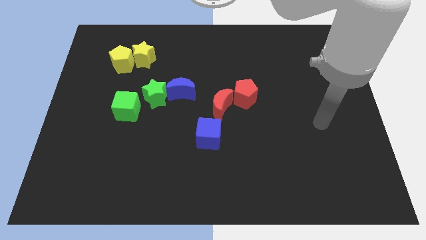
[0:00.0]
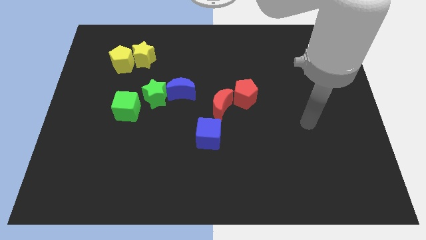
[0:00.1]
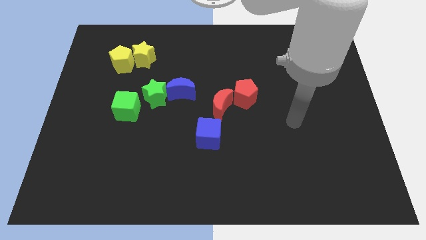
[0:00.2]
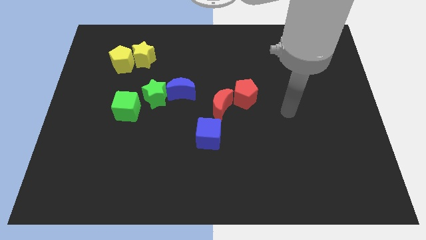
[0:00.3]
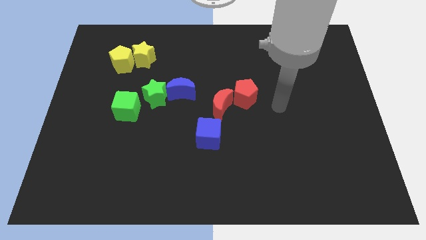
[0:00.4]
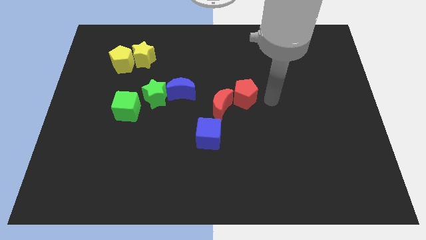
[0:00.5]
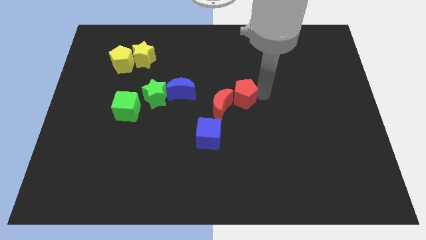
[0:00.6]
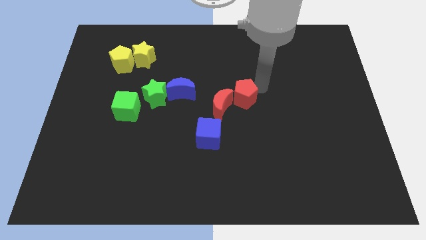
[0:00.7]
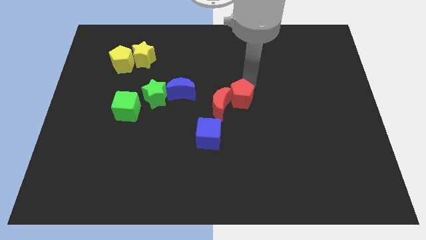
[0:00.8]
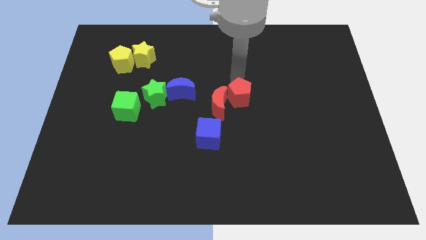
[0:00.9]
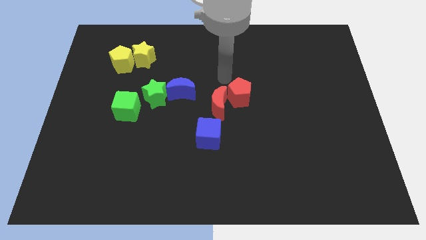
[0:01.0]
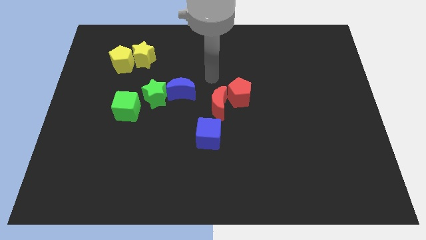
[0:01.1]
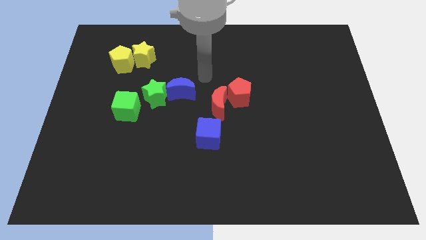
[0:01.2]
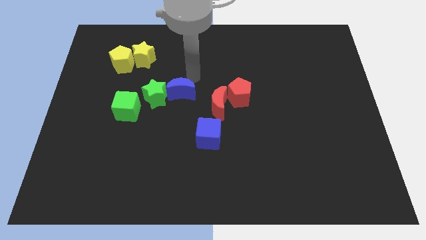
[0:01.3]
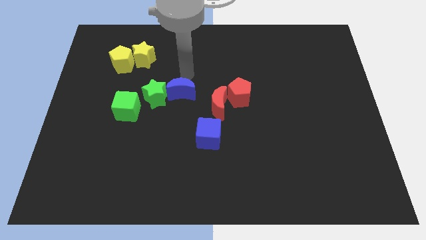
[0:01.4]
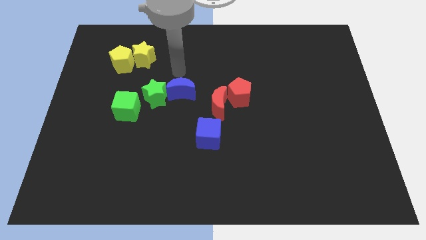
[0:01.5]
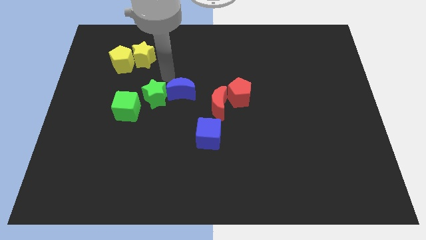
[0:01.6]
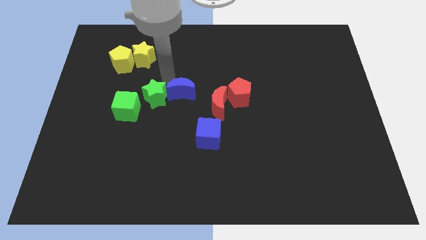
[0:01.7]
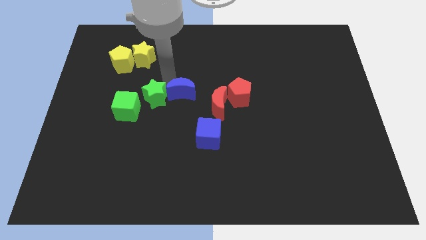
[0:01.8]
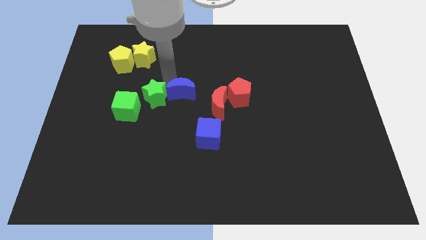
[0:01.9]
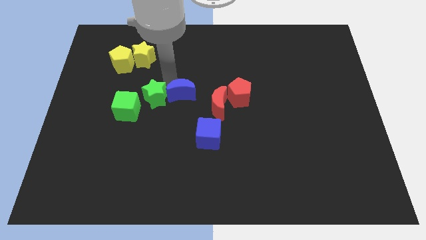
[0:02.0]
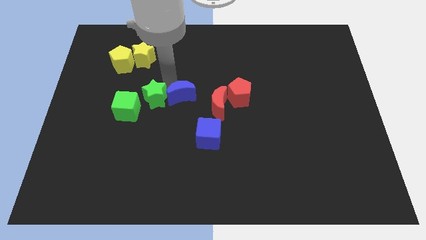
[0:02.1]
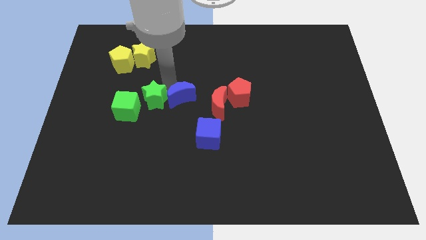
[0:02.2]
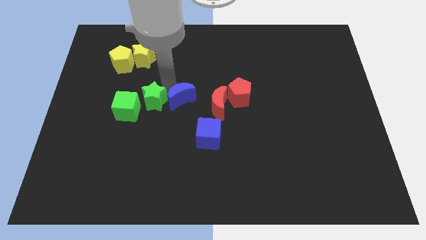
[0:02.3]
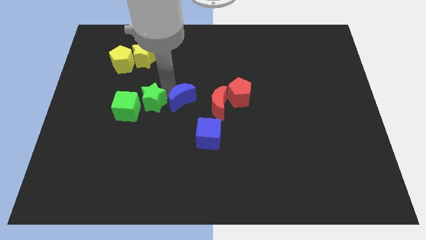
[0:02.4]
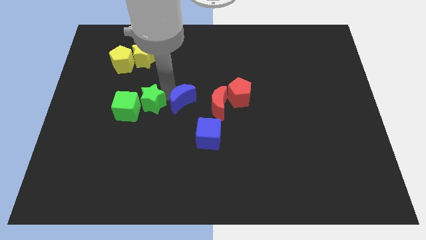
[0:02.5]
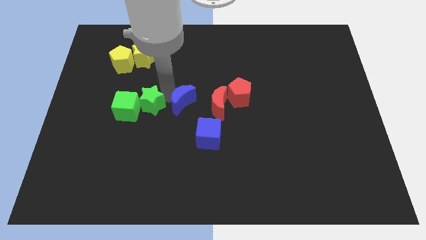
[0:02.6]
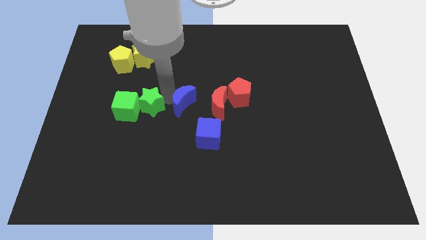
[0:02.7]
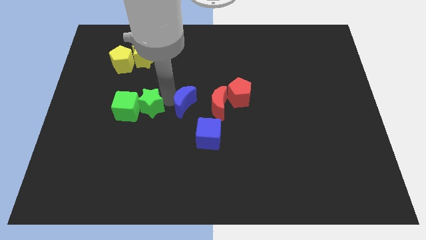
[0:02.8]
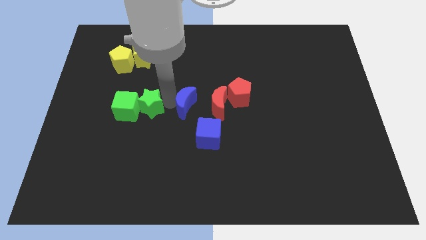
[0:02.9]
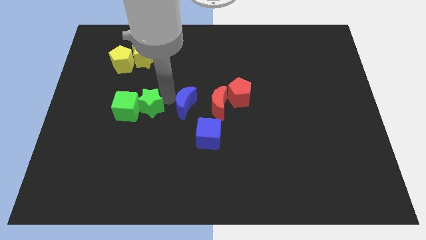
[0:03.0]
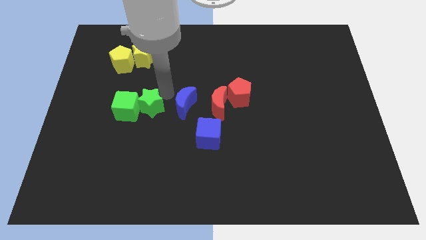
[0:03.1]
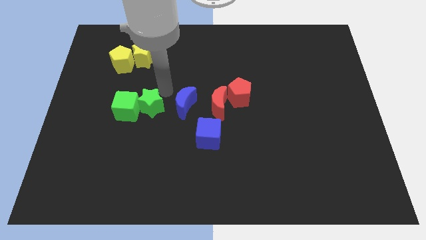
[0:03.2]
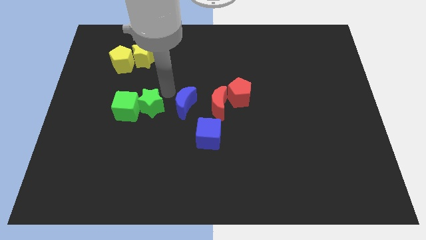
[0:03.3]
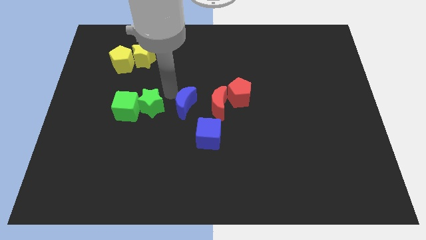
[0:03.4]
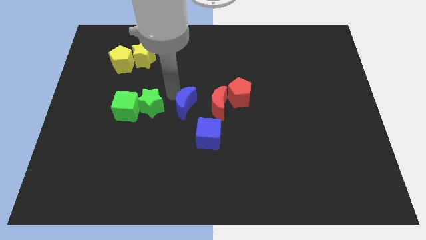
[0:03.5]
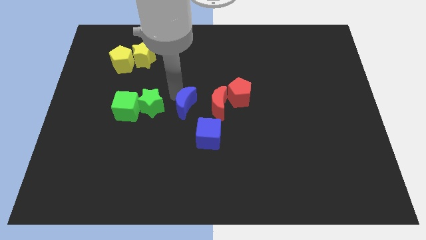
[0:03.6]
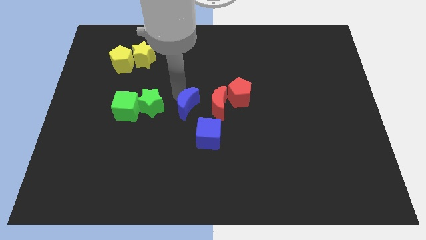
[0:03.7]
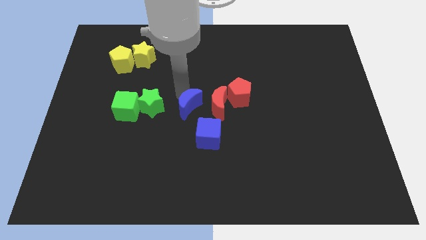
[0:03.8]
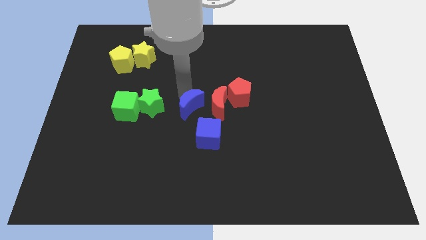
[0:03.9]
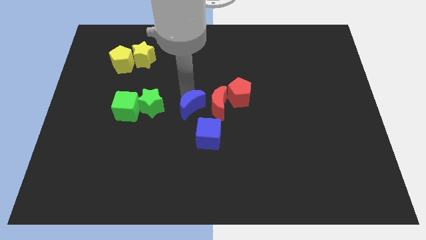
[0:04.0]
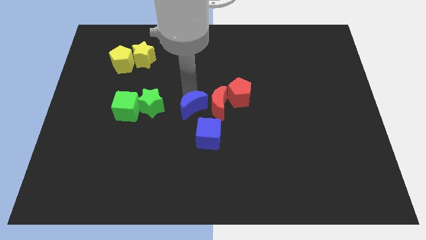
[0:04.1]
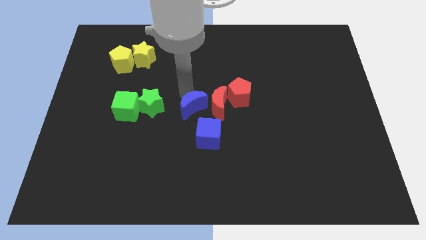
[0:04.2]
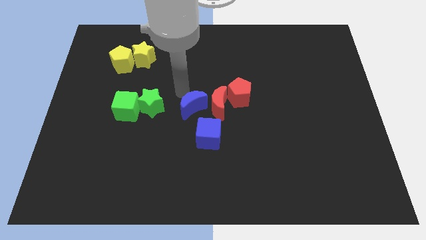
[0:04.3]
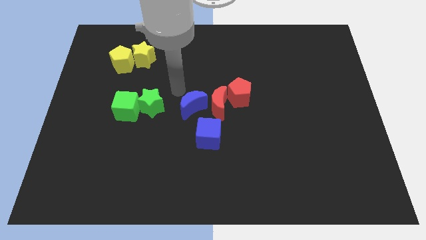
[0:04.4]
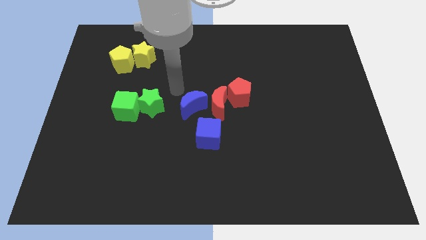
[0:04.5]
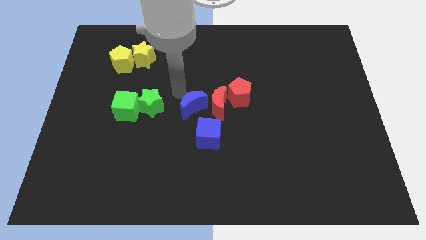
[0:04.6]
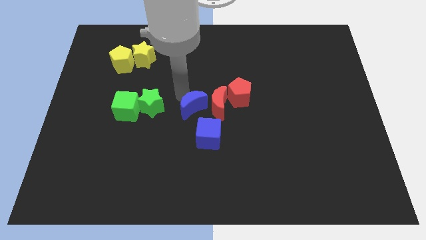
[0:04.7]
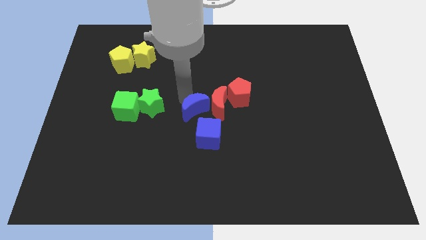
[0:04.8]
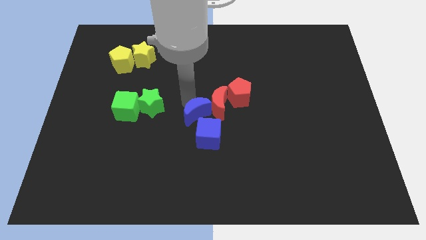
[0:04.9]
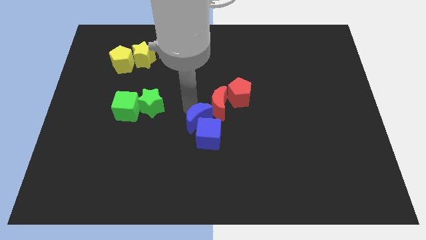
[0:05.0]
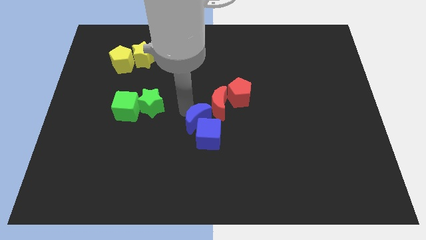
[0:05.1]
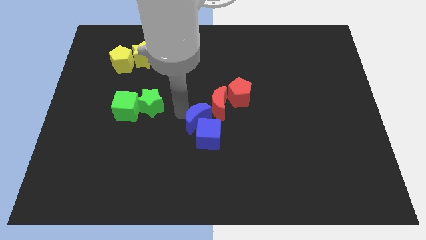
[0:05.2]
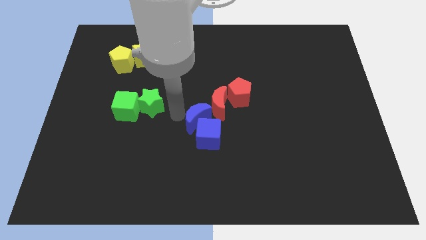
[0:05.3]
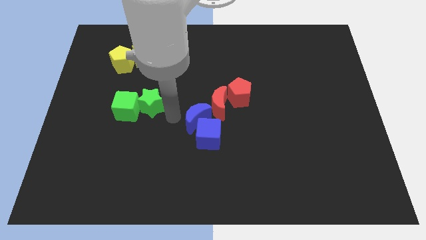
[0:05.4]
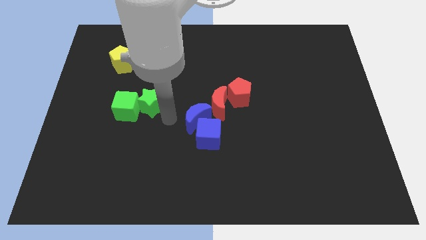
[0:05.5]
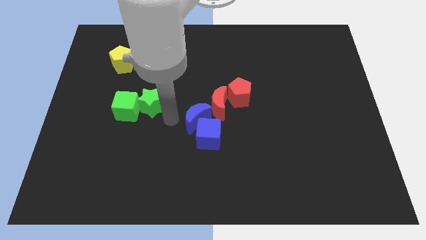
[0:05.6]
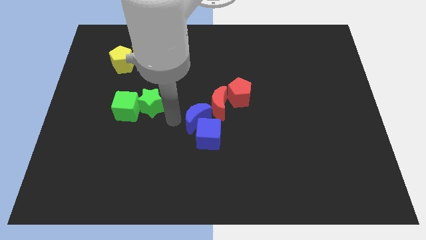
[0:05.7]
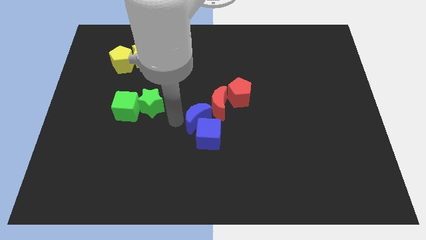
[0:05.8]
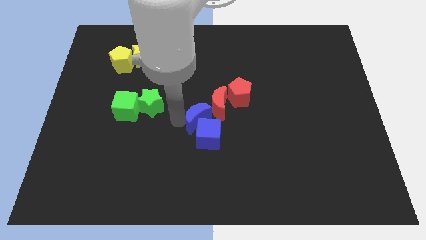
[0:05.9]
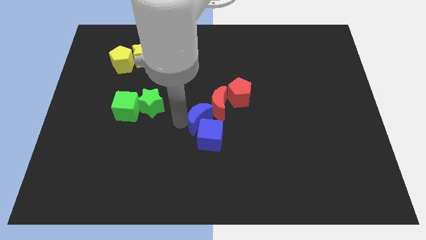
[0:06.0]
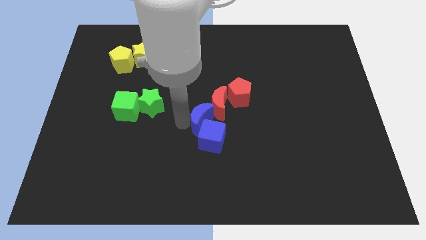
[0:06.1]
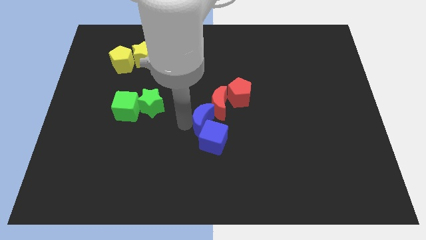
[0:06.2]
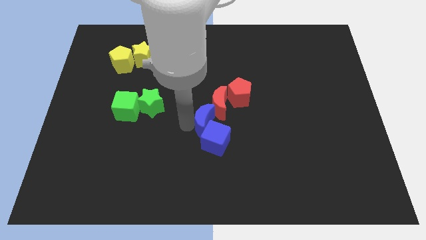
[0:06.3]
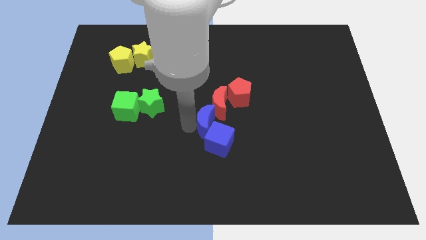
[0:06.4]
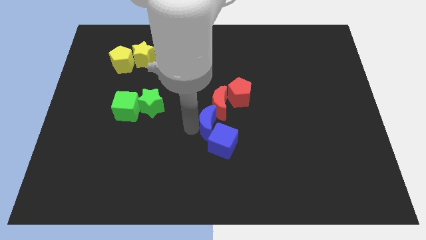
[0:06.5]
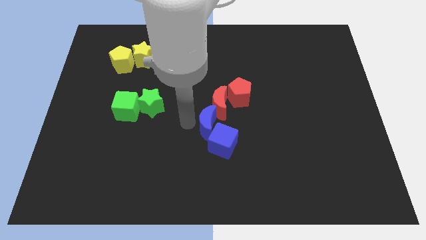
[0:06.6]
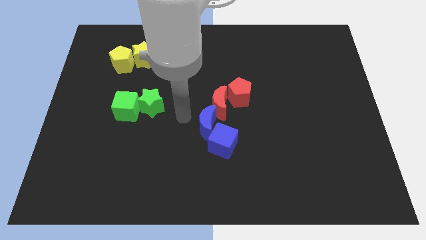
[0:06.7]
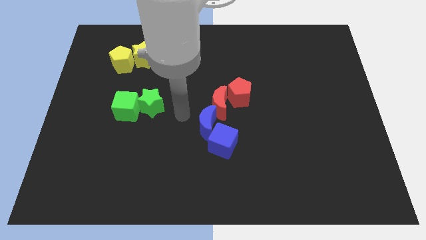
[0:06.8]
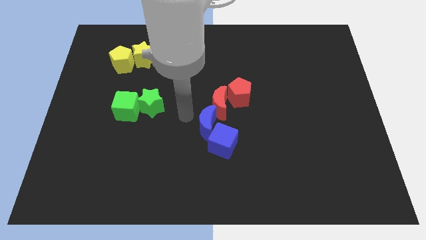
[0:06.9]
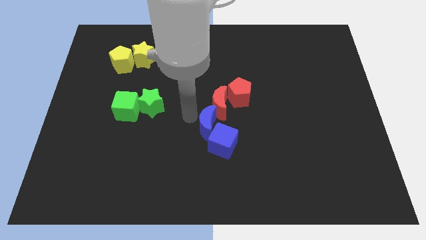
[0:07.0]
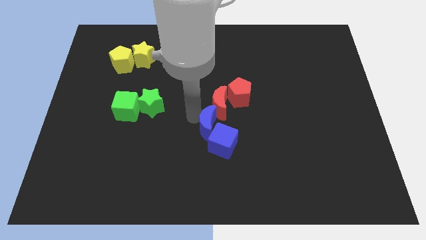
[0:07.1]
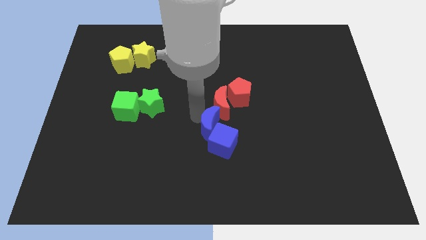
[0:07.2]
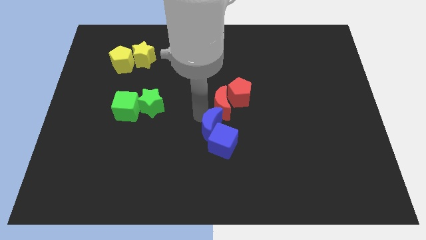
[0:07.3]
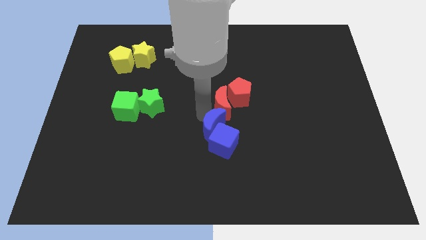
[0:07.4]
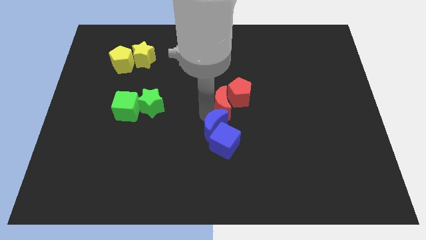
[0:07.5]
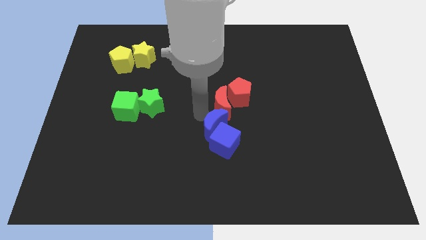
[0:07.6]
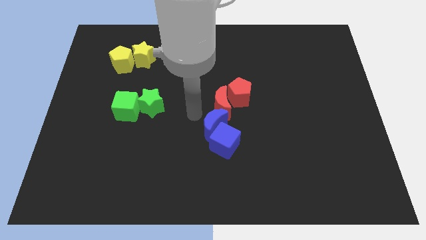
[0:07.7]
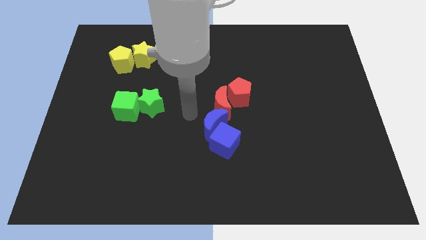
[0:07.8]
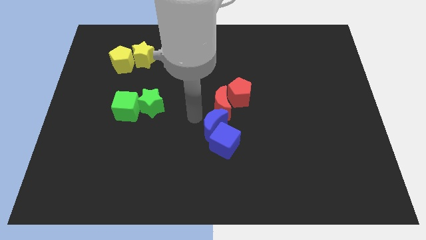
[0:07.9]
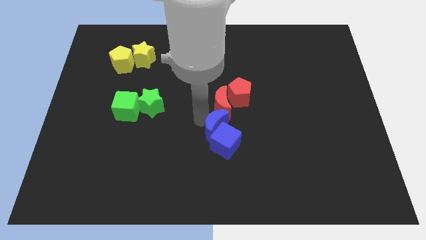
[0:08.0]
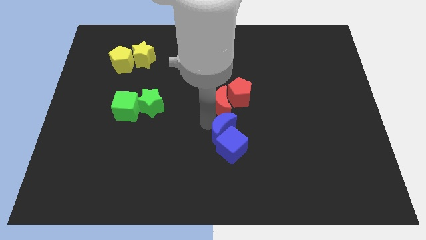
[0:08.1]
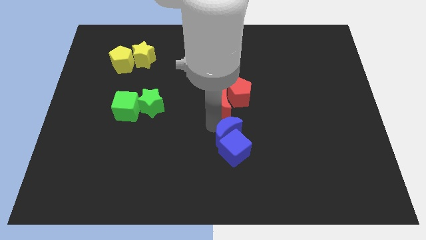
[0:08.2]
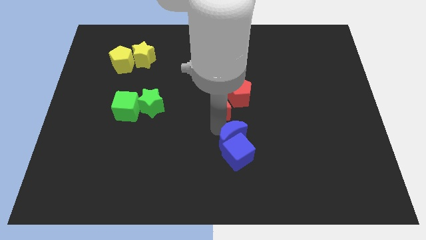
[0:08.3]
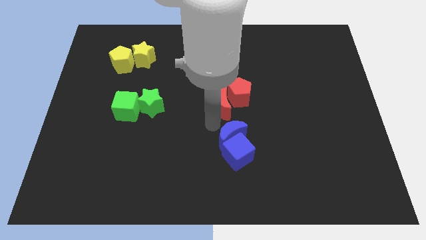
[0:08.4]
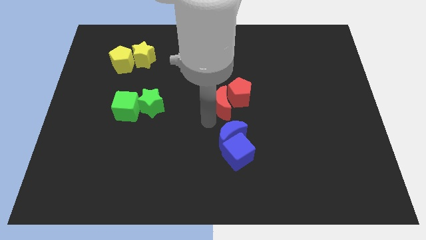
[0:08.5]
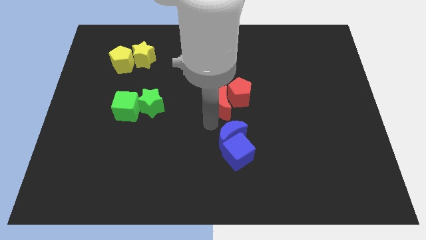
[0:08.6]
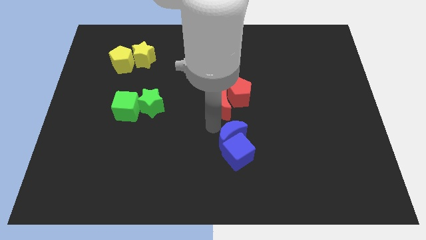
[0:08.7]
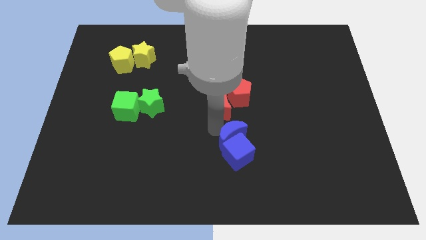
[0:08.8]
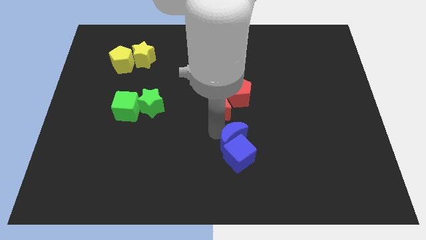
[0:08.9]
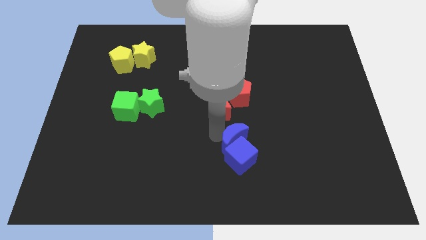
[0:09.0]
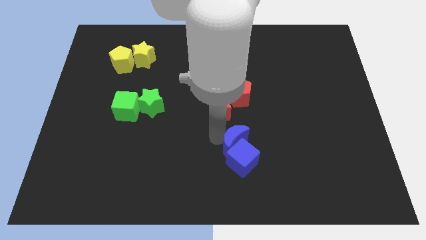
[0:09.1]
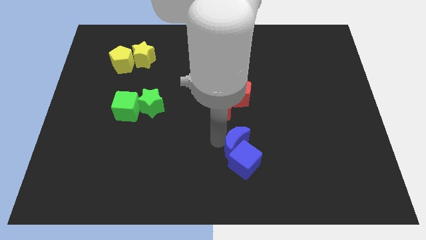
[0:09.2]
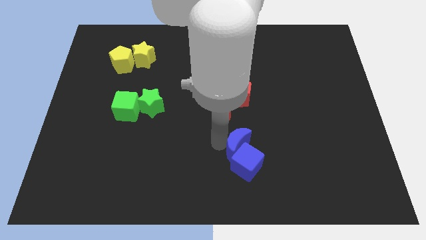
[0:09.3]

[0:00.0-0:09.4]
push the blue moon diagonally down and right
